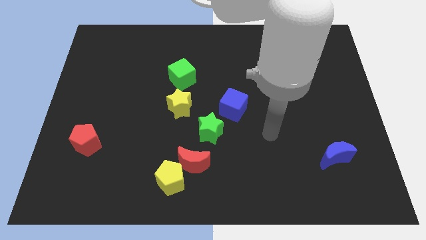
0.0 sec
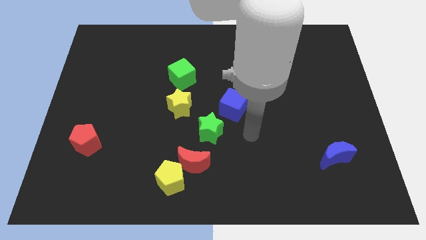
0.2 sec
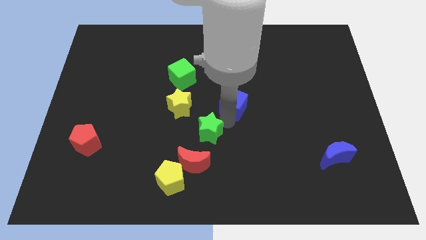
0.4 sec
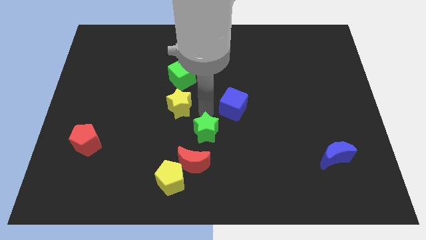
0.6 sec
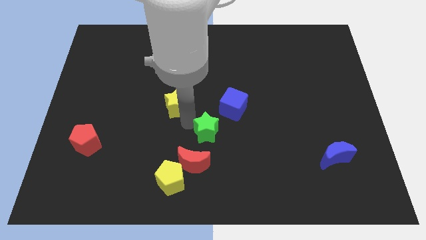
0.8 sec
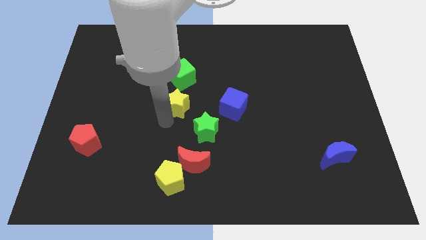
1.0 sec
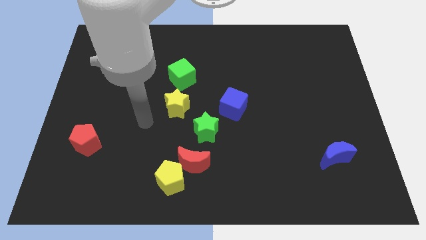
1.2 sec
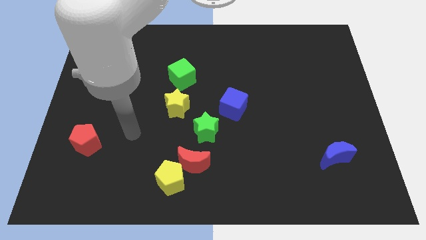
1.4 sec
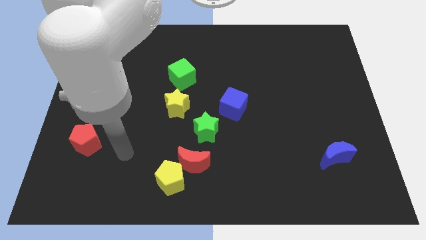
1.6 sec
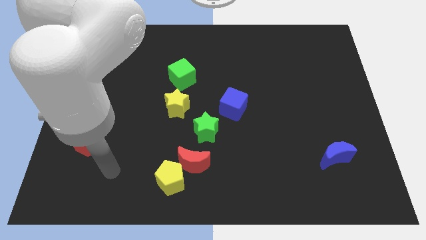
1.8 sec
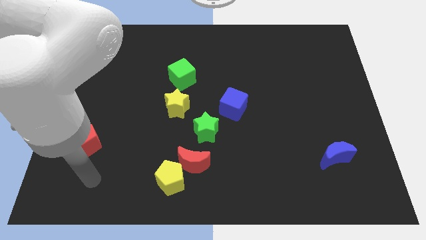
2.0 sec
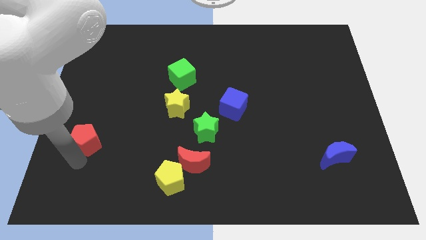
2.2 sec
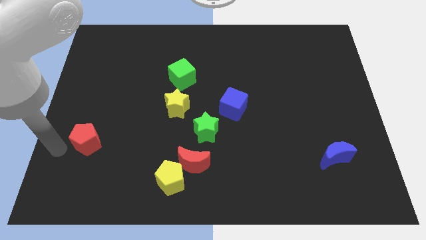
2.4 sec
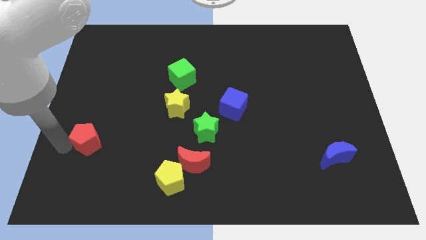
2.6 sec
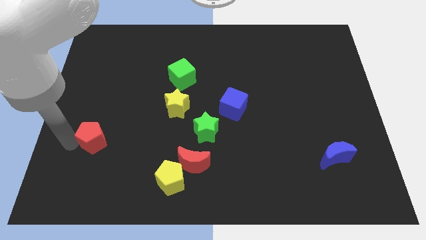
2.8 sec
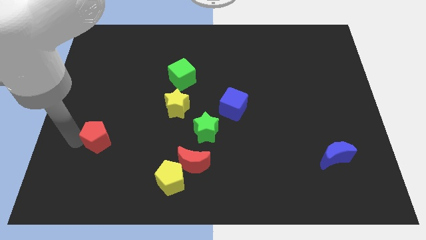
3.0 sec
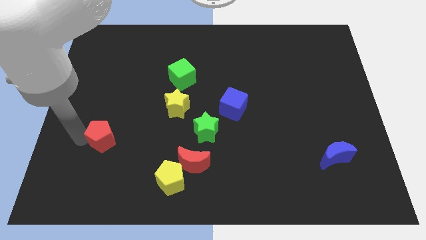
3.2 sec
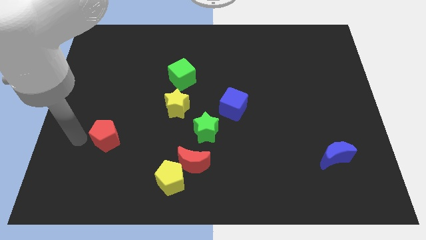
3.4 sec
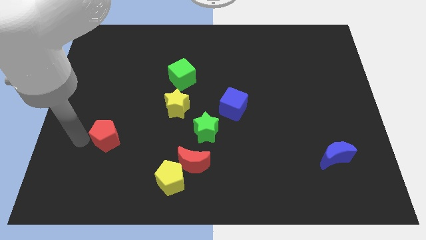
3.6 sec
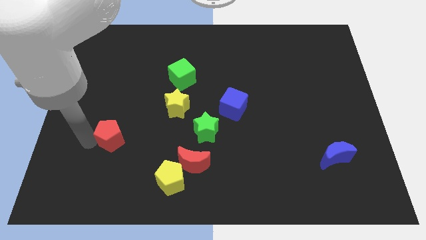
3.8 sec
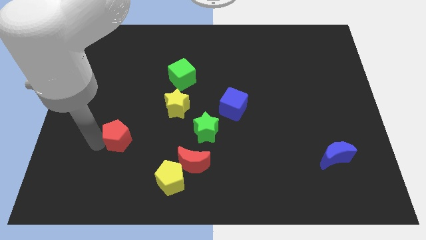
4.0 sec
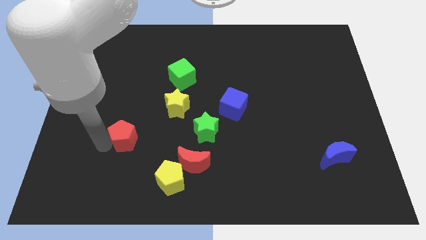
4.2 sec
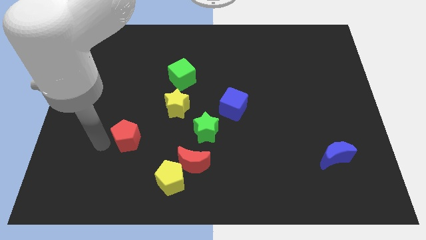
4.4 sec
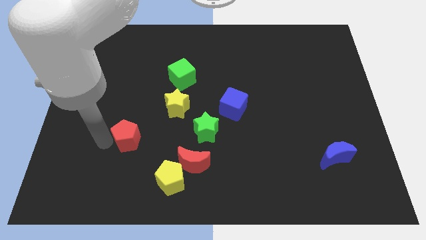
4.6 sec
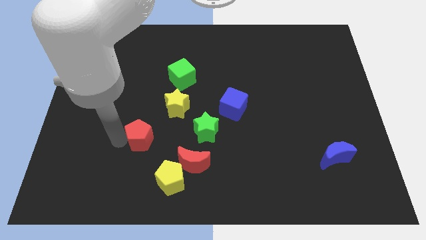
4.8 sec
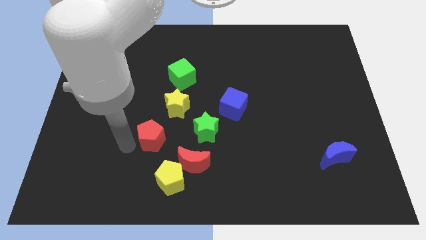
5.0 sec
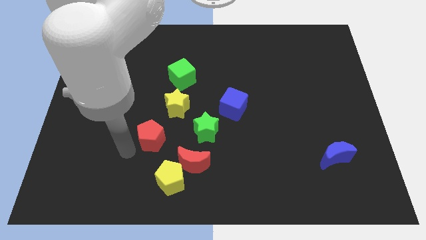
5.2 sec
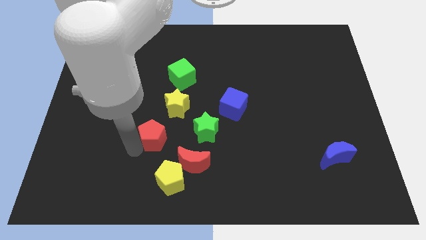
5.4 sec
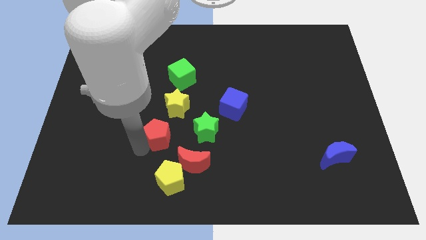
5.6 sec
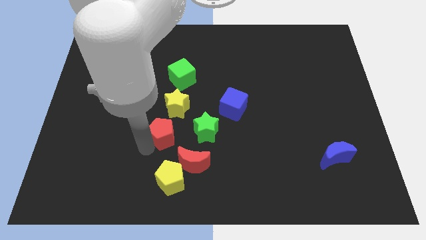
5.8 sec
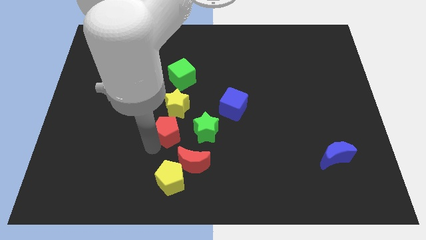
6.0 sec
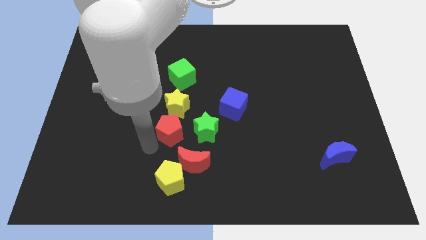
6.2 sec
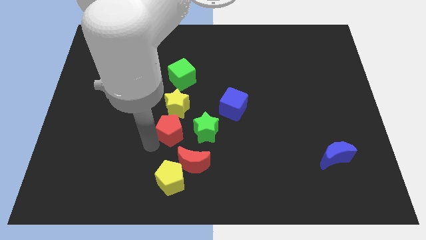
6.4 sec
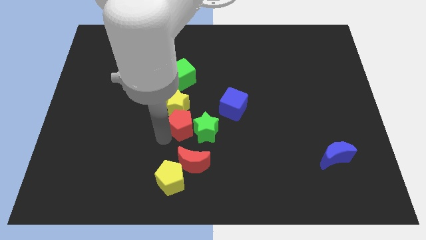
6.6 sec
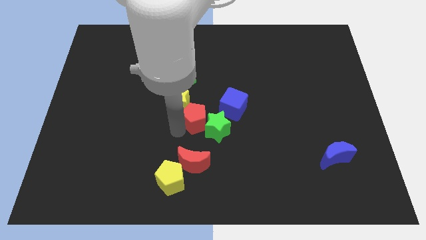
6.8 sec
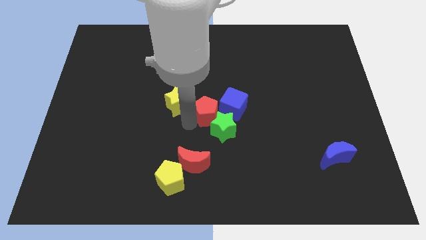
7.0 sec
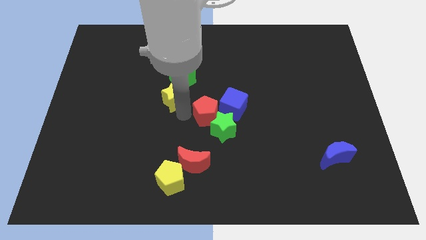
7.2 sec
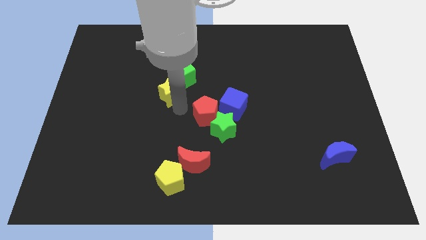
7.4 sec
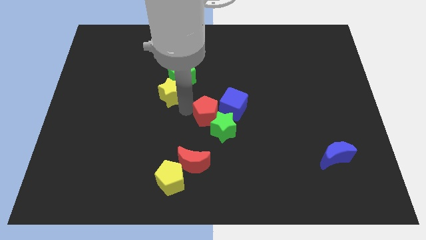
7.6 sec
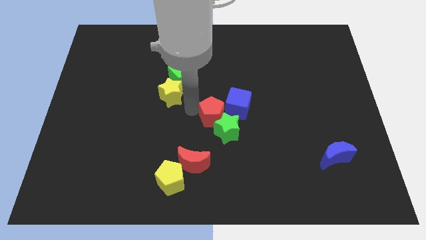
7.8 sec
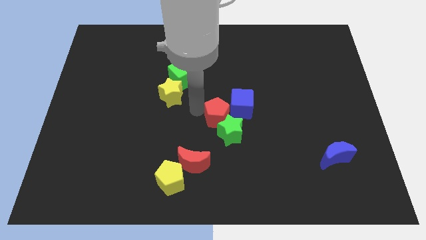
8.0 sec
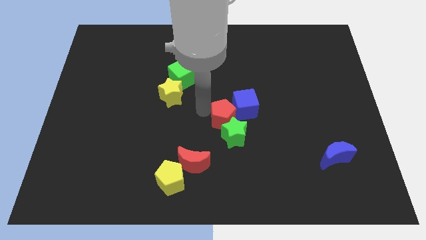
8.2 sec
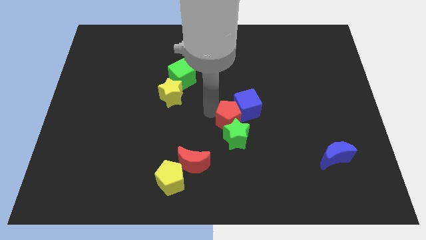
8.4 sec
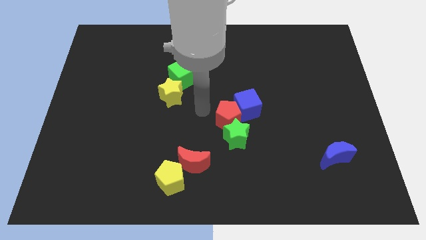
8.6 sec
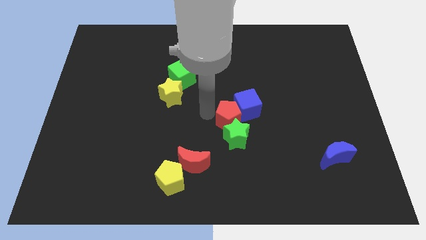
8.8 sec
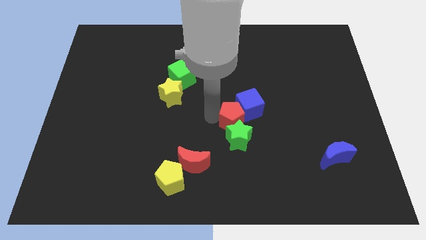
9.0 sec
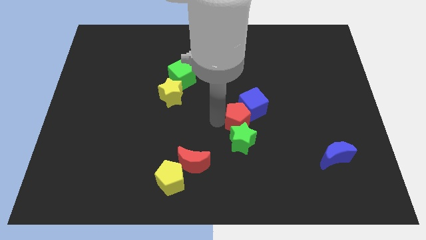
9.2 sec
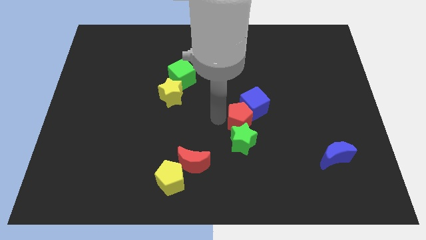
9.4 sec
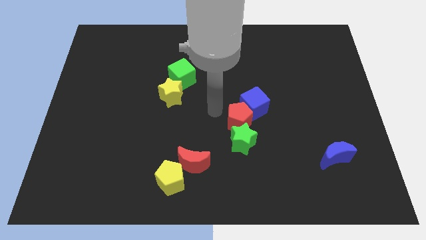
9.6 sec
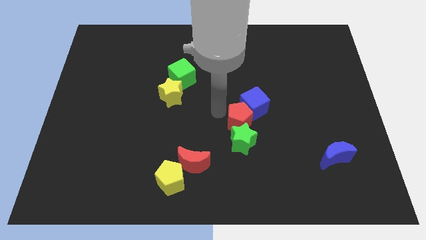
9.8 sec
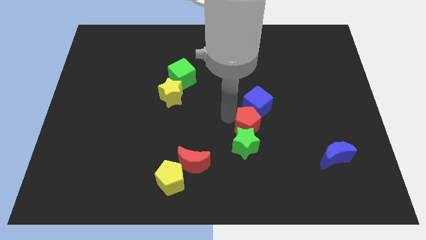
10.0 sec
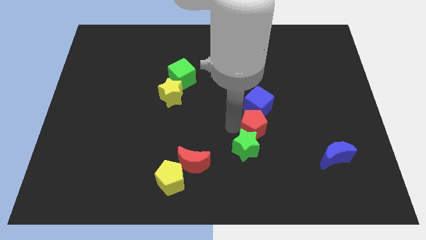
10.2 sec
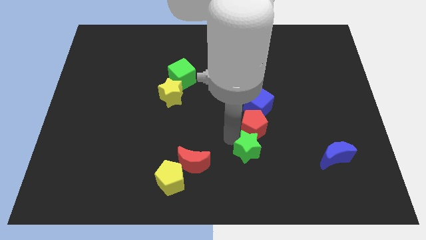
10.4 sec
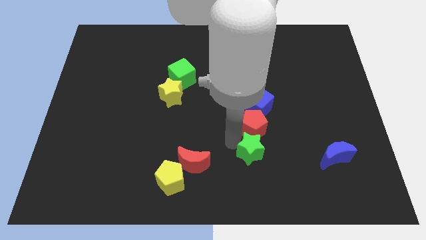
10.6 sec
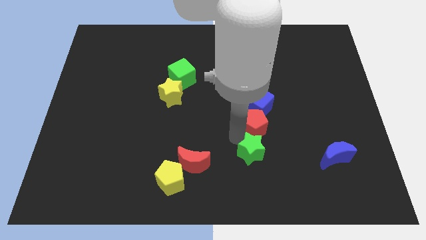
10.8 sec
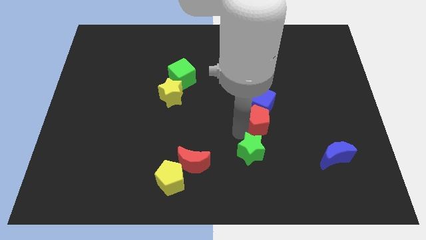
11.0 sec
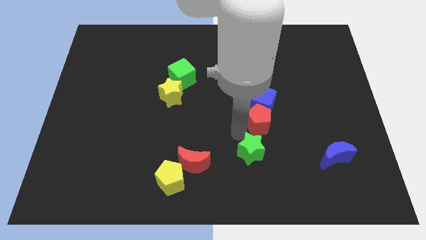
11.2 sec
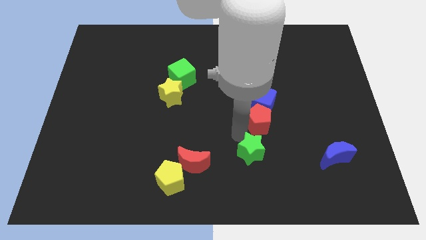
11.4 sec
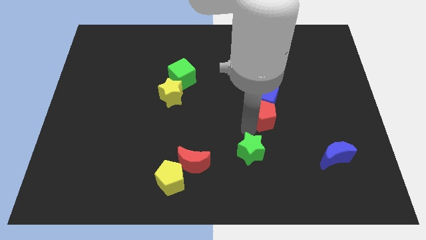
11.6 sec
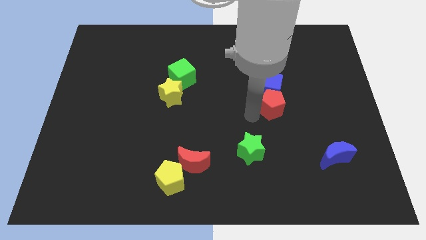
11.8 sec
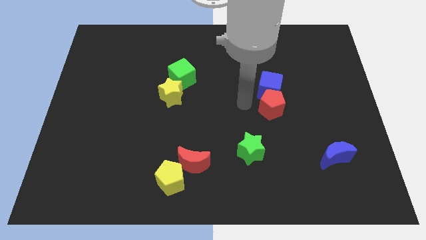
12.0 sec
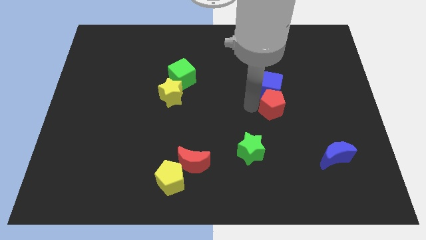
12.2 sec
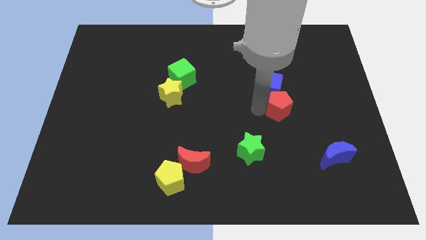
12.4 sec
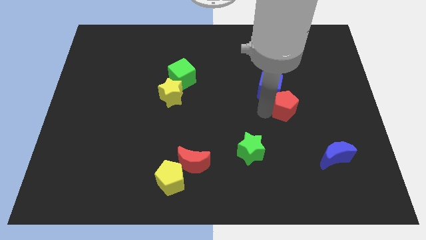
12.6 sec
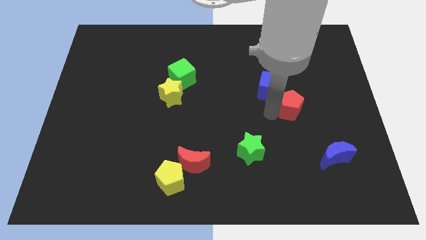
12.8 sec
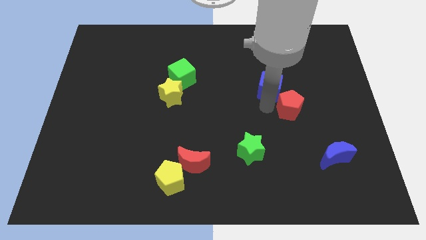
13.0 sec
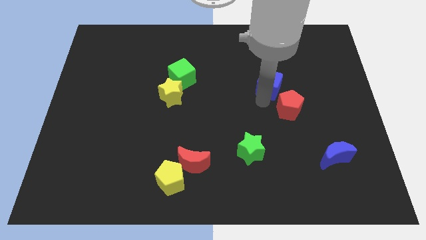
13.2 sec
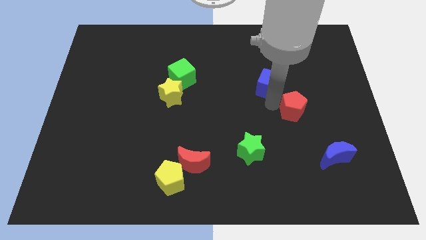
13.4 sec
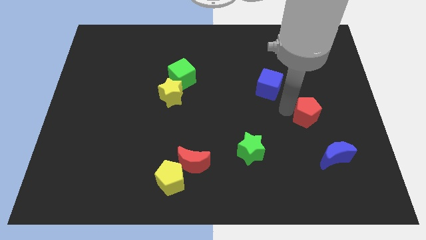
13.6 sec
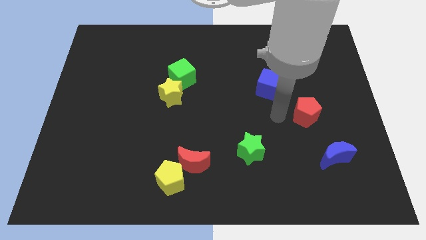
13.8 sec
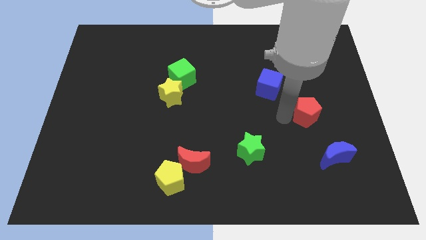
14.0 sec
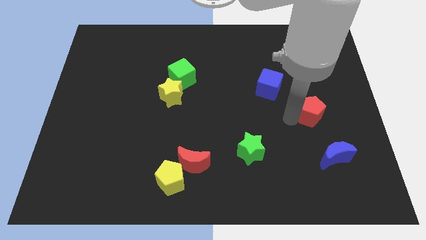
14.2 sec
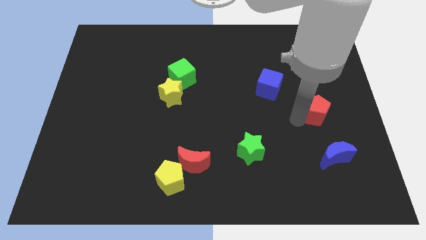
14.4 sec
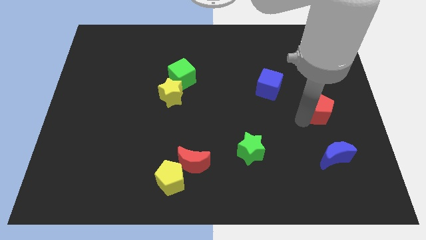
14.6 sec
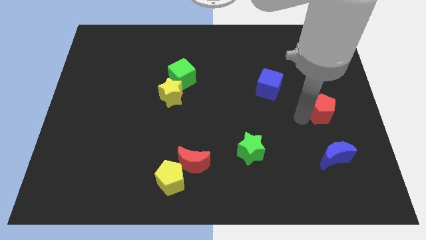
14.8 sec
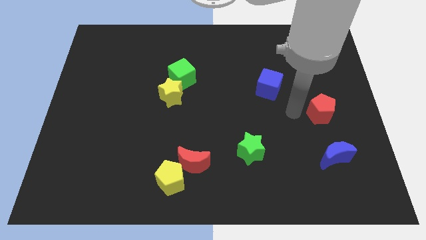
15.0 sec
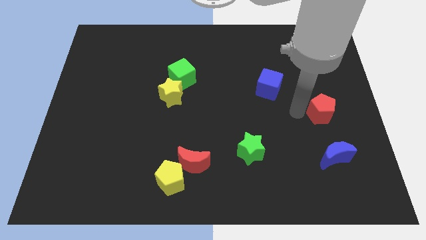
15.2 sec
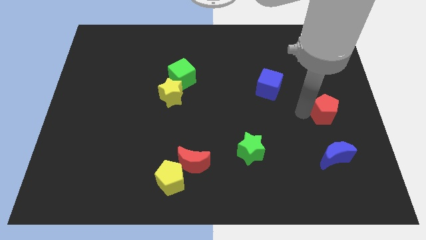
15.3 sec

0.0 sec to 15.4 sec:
slide the red pentagon to the right side
